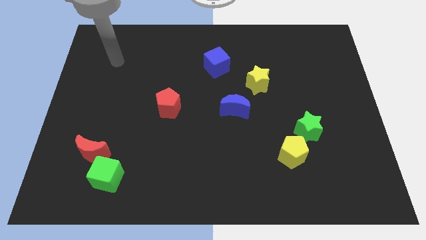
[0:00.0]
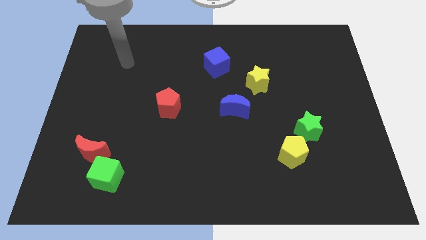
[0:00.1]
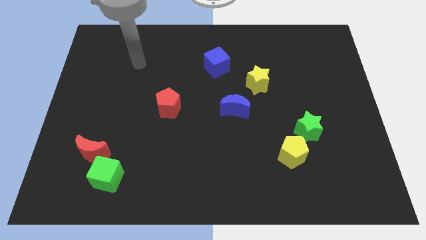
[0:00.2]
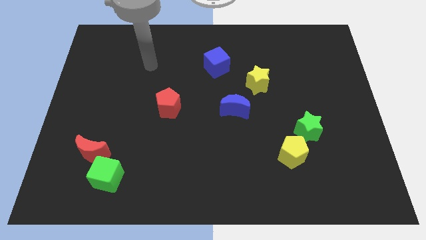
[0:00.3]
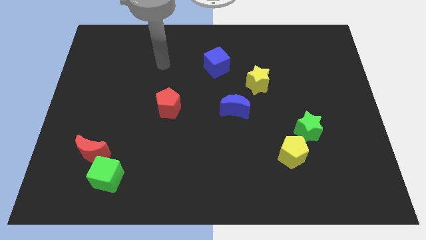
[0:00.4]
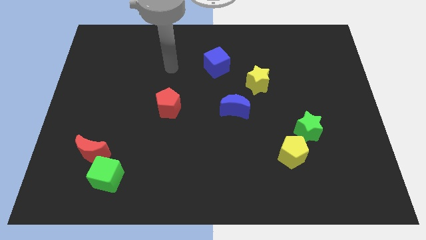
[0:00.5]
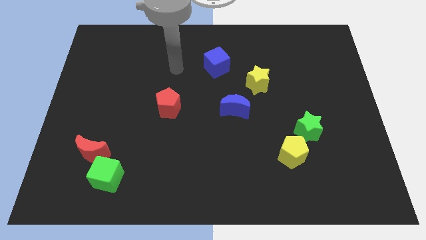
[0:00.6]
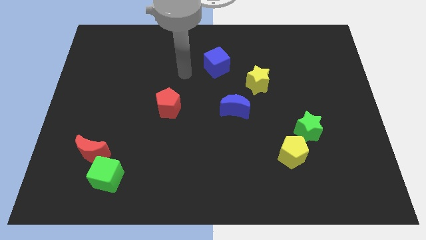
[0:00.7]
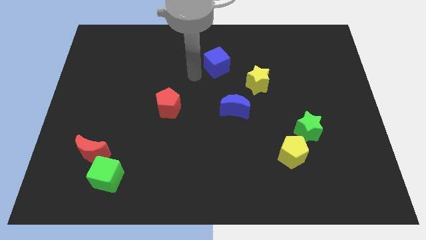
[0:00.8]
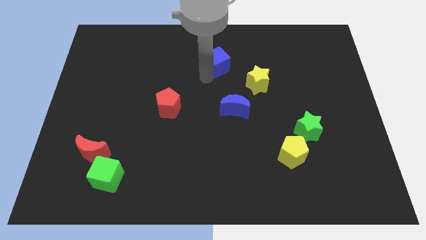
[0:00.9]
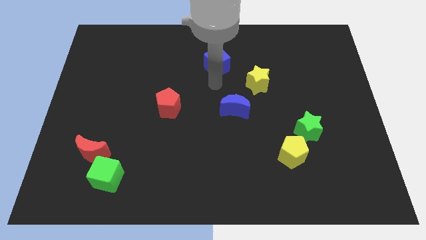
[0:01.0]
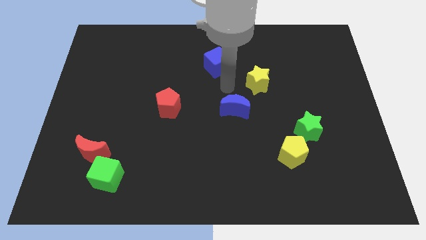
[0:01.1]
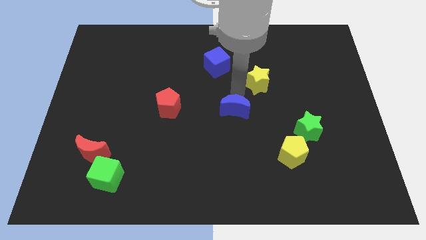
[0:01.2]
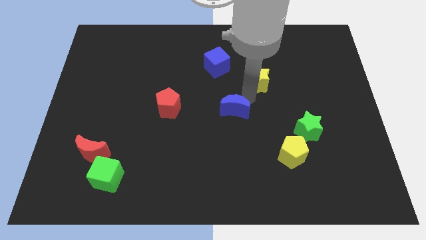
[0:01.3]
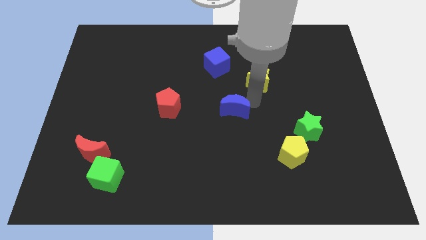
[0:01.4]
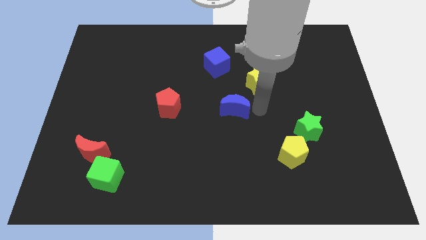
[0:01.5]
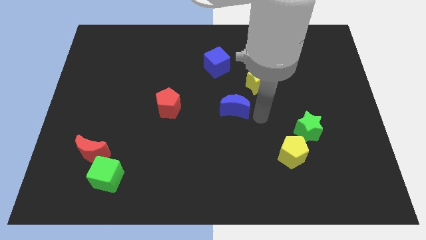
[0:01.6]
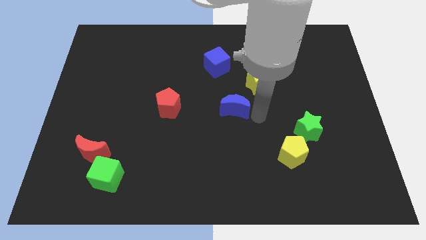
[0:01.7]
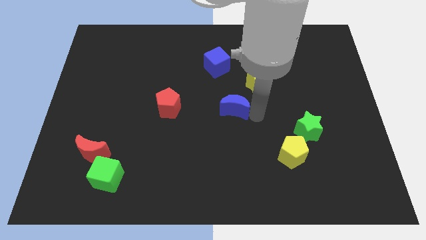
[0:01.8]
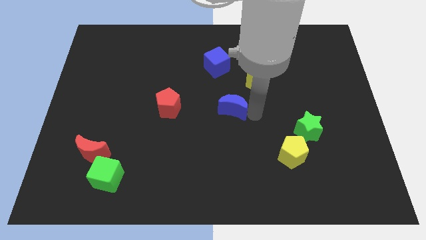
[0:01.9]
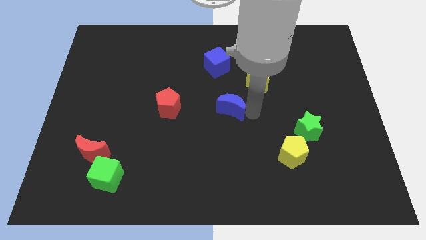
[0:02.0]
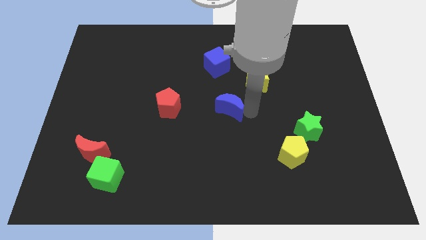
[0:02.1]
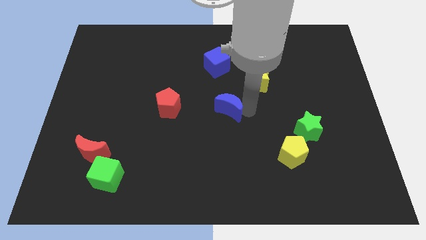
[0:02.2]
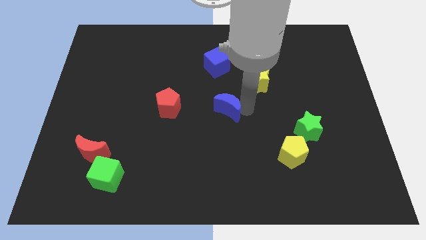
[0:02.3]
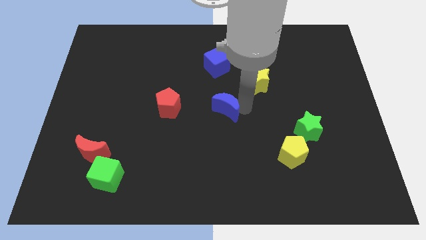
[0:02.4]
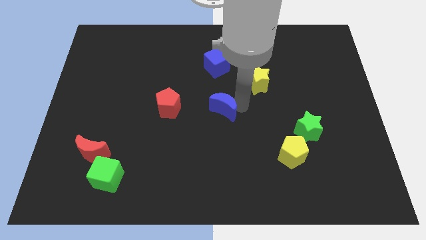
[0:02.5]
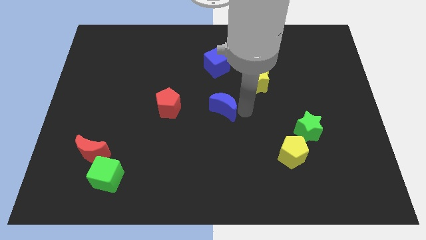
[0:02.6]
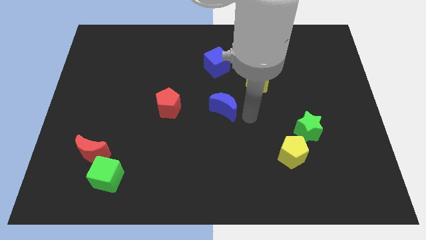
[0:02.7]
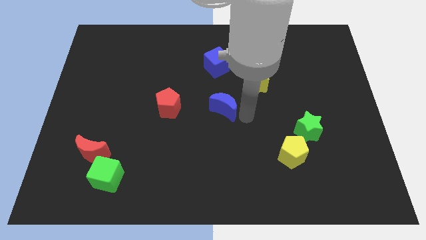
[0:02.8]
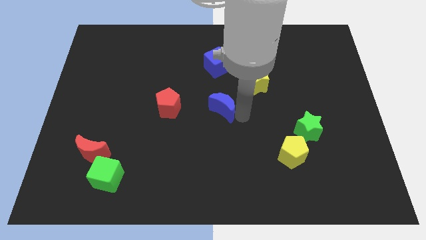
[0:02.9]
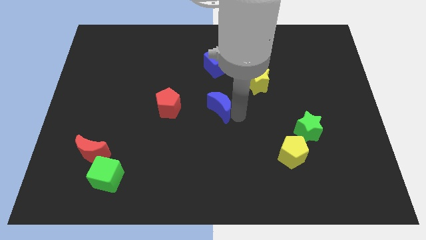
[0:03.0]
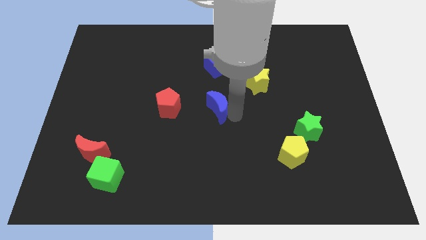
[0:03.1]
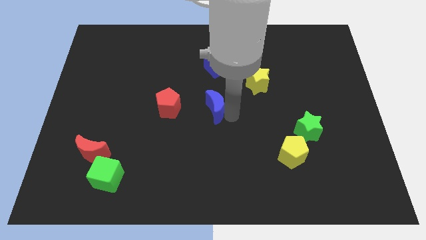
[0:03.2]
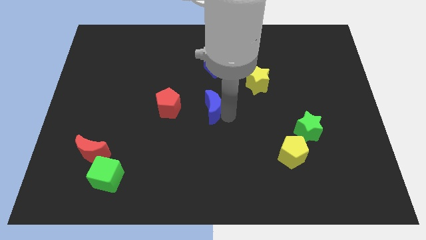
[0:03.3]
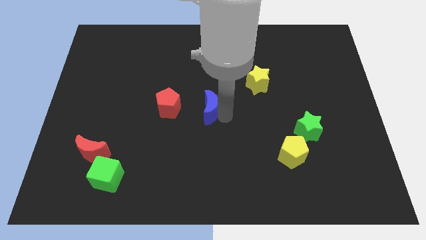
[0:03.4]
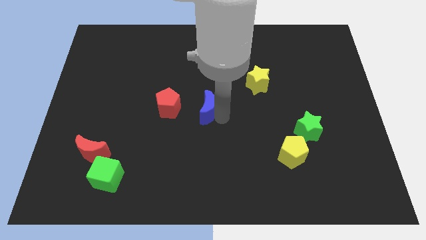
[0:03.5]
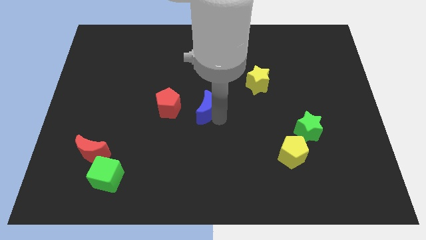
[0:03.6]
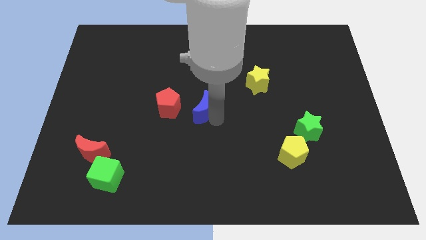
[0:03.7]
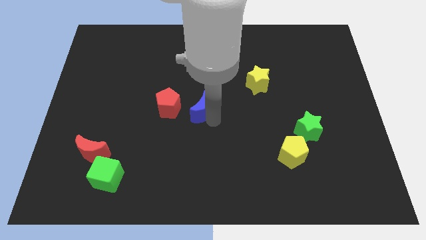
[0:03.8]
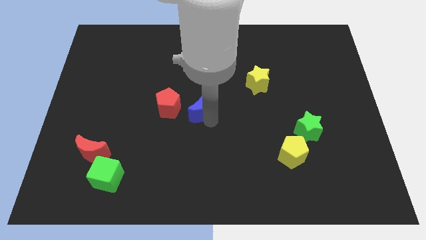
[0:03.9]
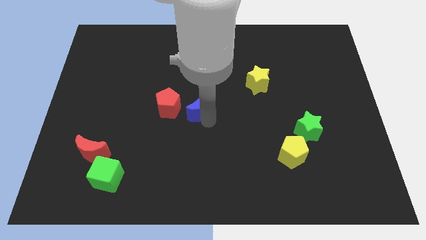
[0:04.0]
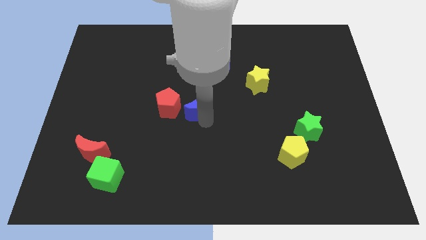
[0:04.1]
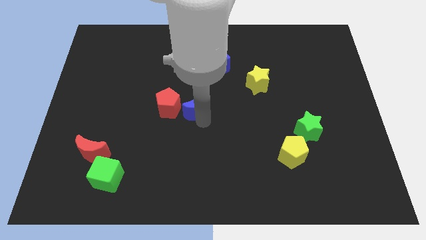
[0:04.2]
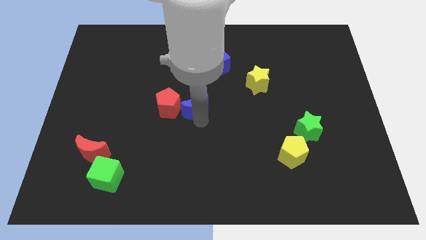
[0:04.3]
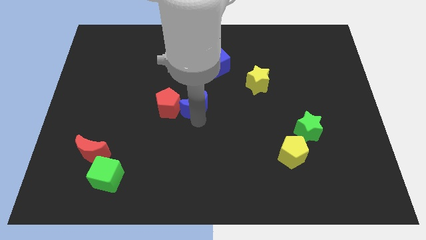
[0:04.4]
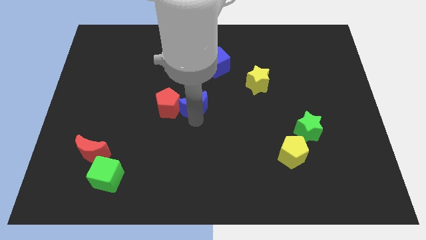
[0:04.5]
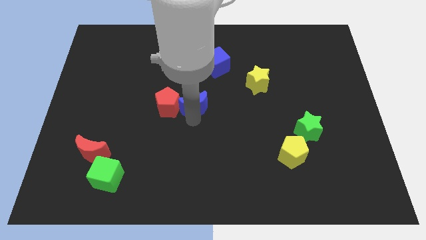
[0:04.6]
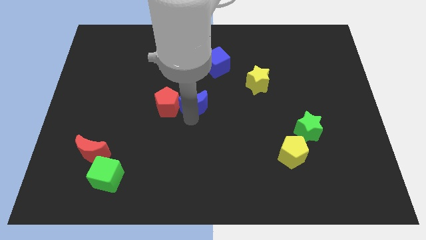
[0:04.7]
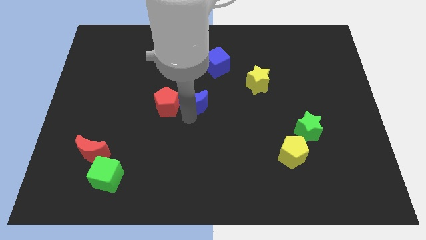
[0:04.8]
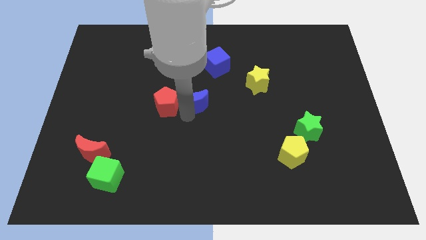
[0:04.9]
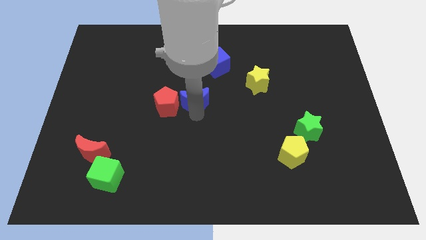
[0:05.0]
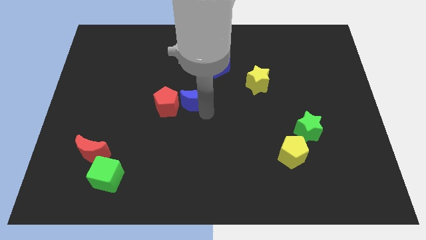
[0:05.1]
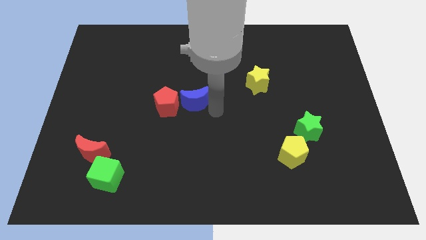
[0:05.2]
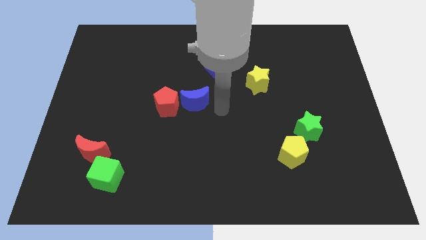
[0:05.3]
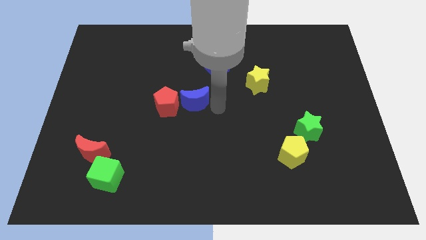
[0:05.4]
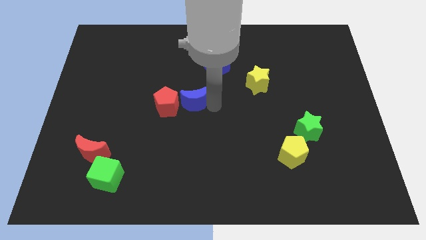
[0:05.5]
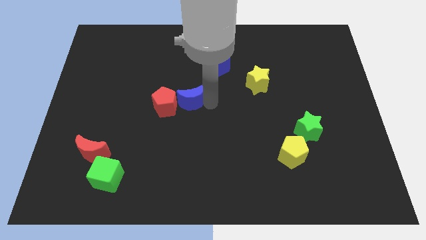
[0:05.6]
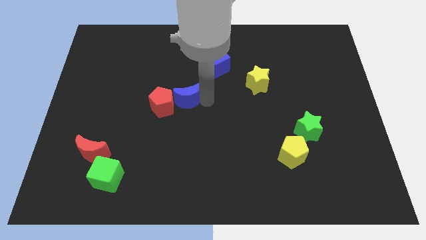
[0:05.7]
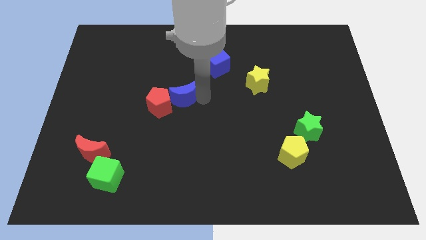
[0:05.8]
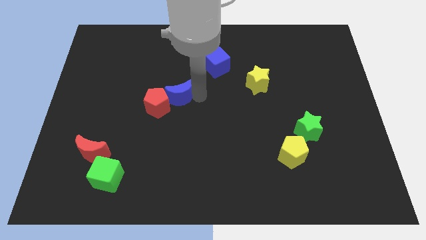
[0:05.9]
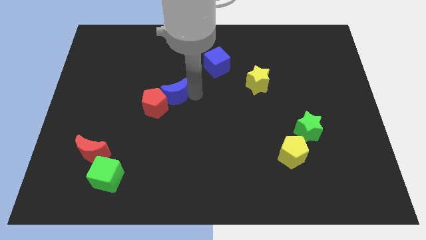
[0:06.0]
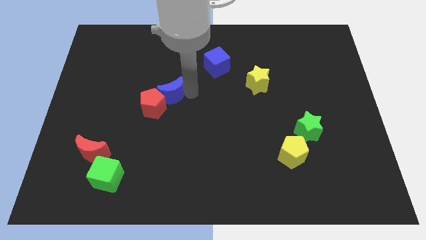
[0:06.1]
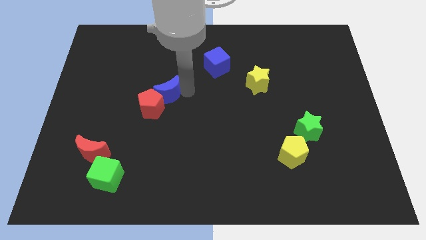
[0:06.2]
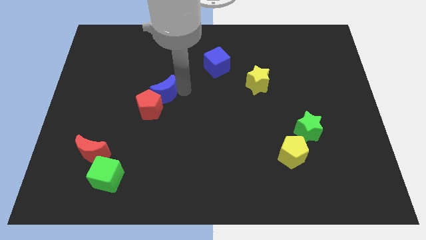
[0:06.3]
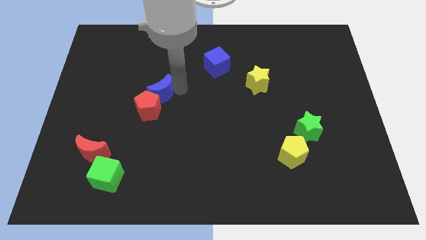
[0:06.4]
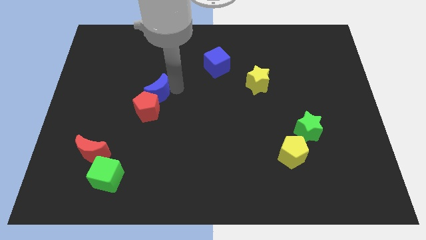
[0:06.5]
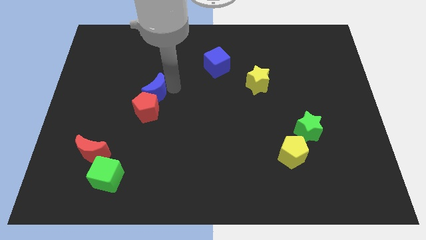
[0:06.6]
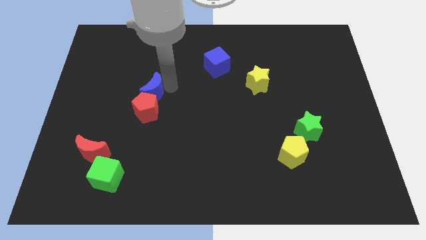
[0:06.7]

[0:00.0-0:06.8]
push the blue moon diagonally up and to the left of the red pentagon

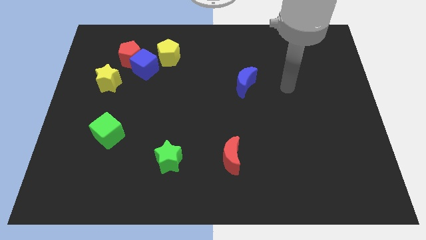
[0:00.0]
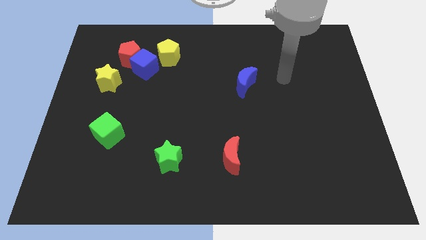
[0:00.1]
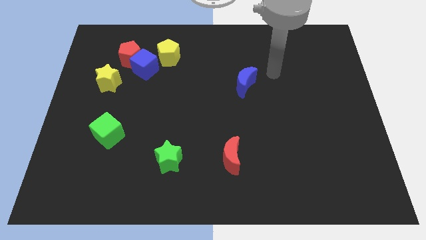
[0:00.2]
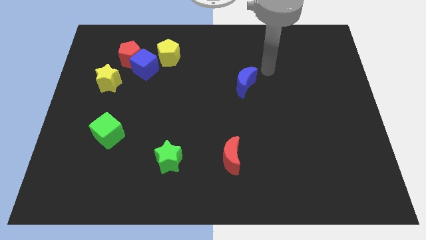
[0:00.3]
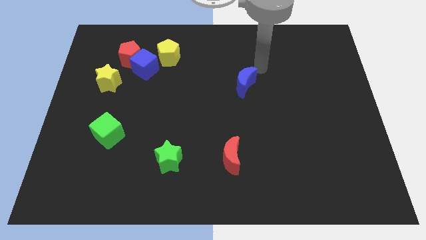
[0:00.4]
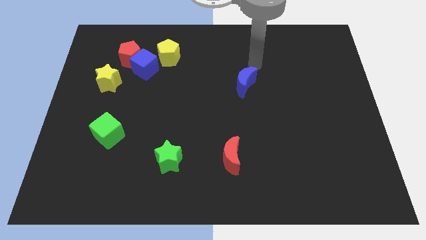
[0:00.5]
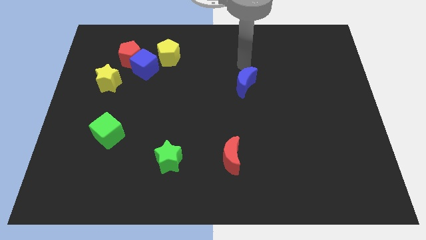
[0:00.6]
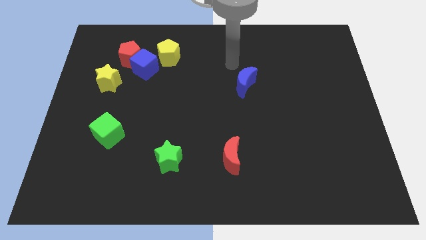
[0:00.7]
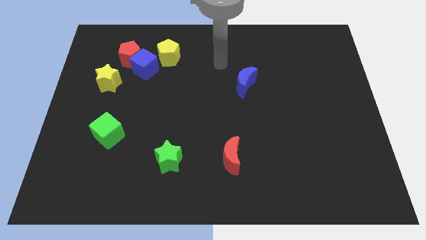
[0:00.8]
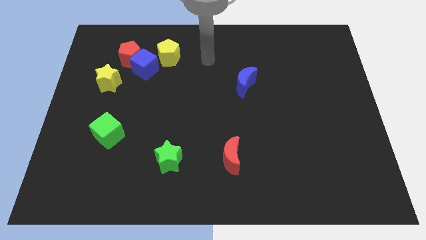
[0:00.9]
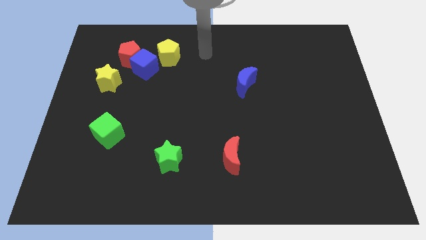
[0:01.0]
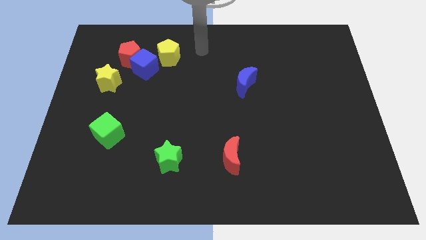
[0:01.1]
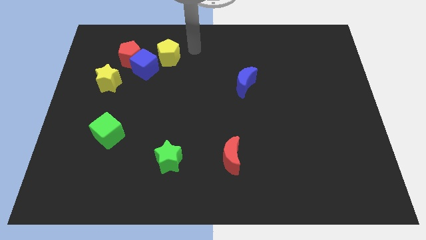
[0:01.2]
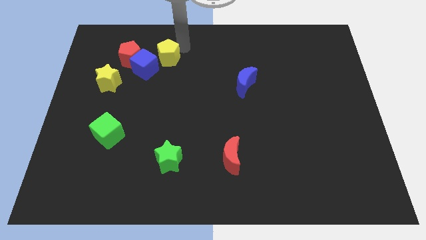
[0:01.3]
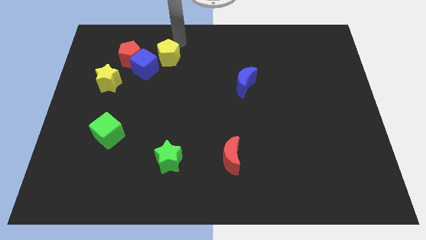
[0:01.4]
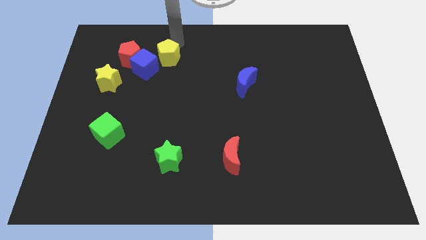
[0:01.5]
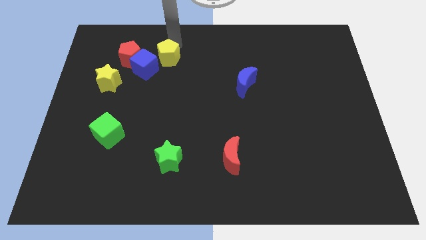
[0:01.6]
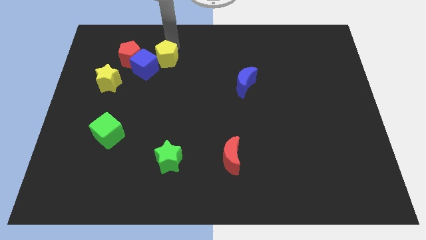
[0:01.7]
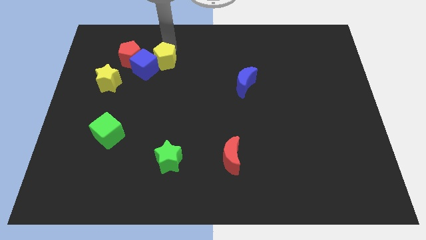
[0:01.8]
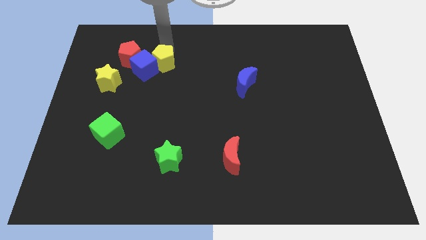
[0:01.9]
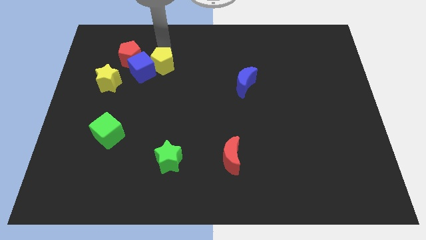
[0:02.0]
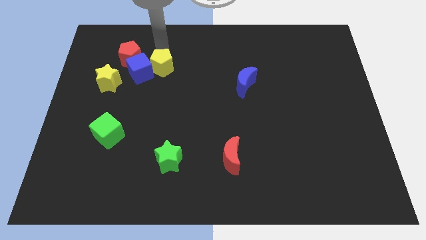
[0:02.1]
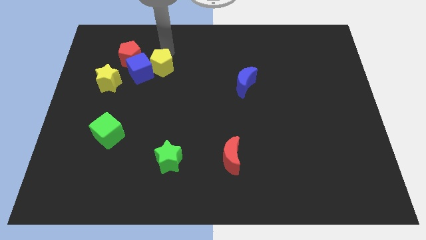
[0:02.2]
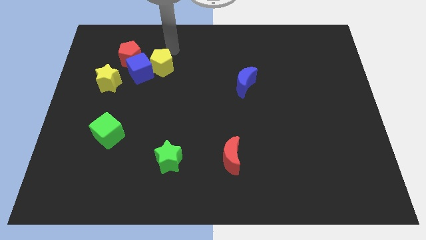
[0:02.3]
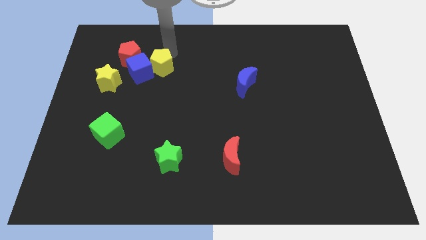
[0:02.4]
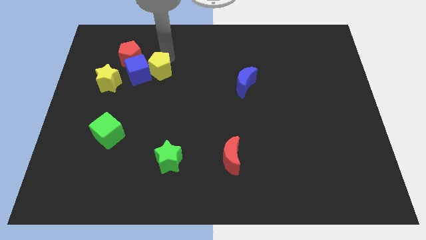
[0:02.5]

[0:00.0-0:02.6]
slide the yellow pentagon to the right of the yellow star
